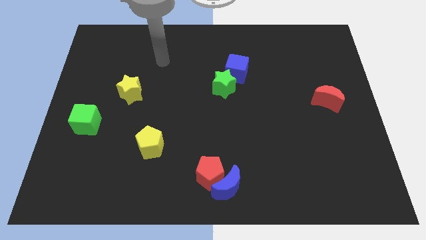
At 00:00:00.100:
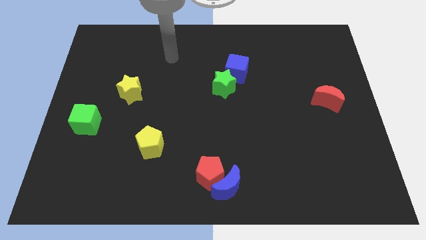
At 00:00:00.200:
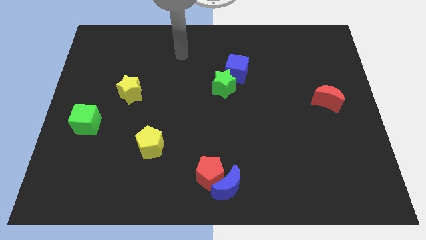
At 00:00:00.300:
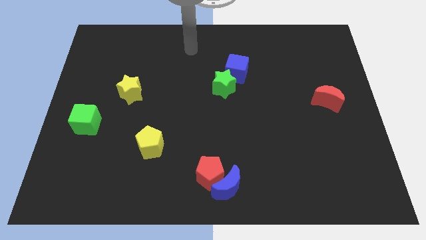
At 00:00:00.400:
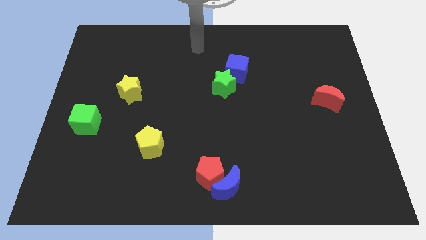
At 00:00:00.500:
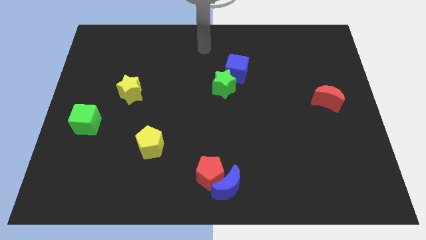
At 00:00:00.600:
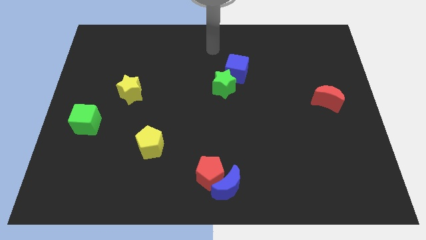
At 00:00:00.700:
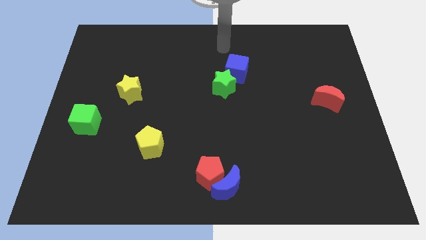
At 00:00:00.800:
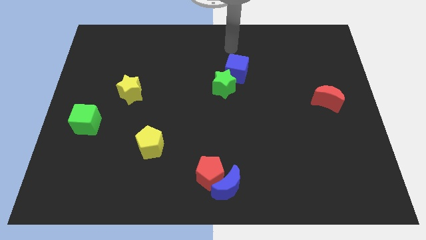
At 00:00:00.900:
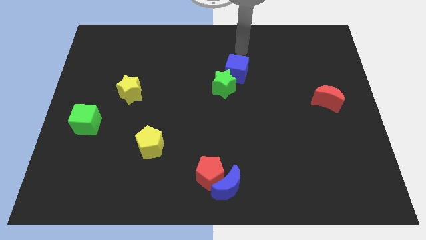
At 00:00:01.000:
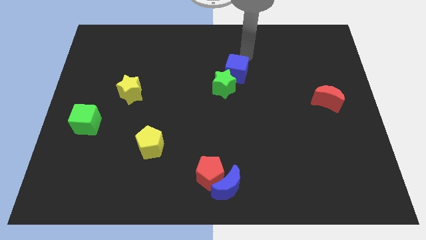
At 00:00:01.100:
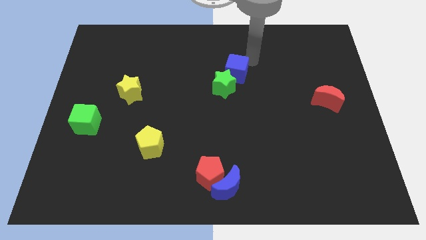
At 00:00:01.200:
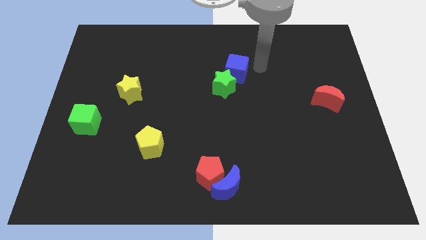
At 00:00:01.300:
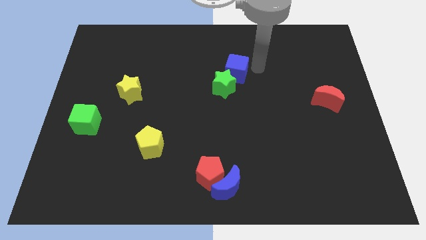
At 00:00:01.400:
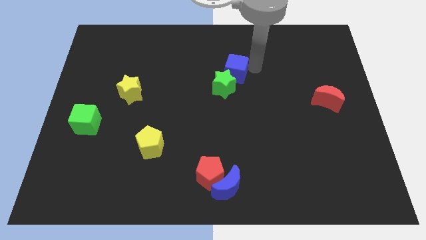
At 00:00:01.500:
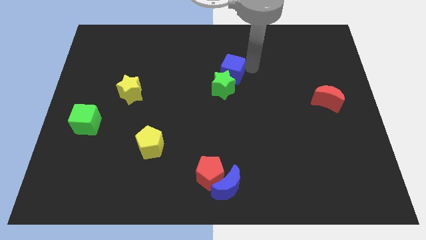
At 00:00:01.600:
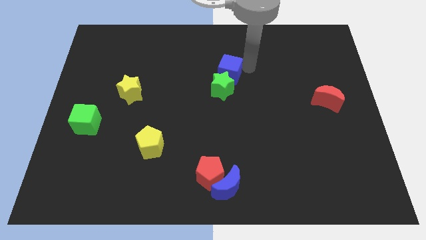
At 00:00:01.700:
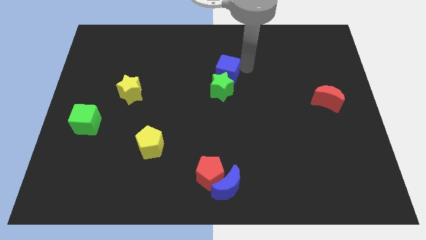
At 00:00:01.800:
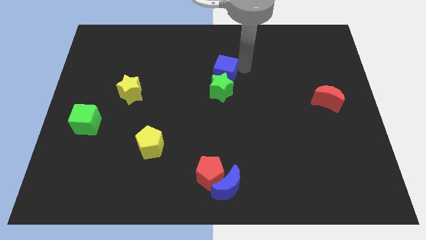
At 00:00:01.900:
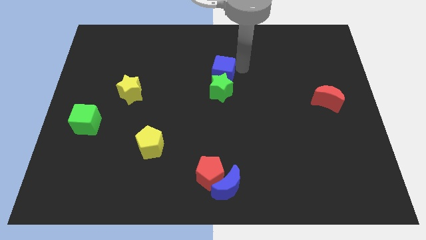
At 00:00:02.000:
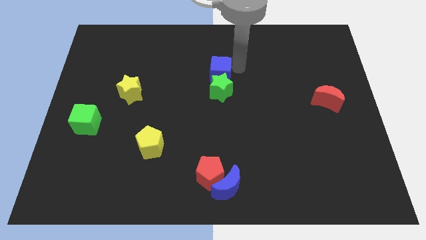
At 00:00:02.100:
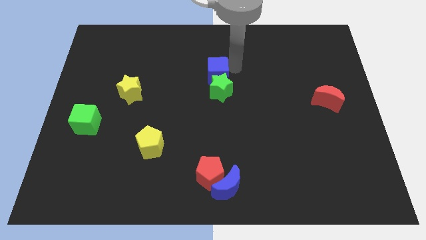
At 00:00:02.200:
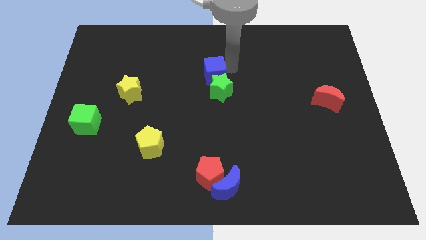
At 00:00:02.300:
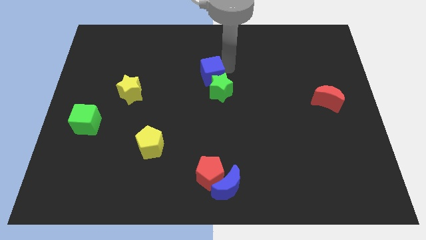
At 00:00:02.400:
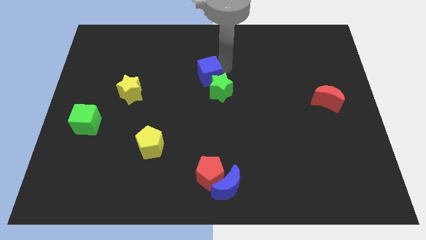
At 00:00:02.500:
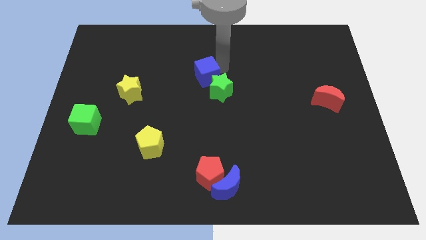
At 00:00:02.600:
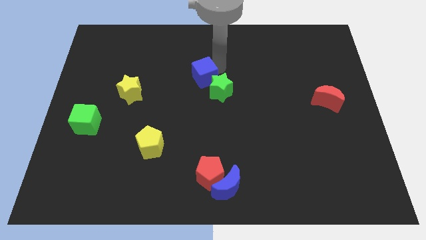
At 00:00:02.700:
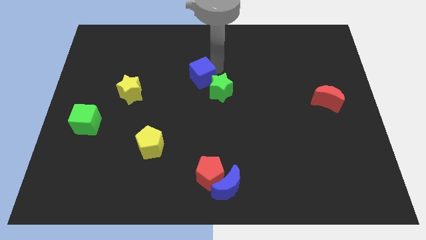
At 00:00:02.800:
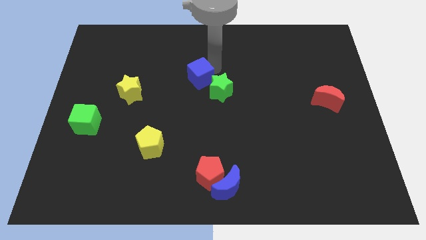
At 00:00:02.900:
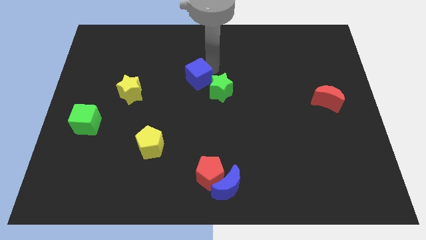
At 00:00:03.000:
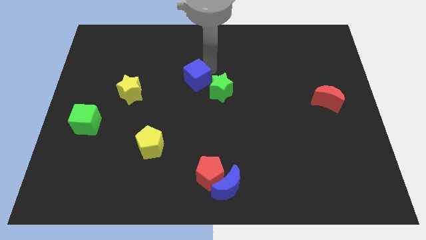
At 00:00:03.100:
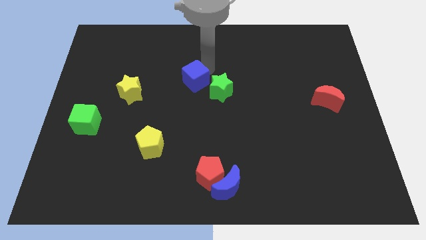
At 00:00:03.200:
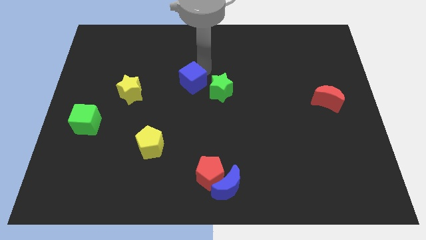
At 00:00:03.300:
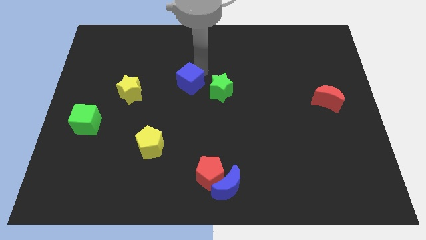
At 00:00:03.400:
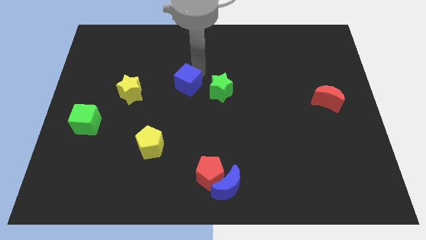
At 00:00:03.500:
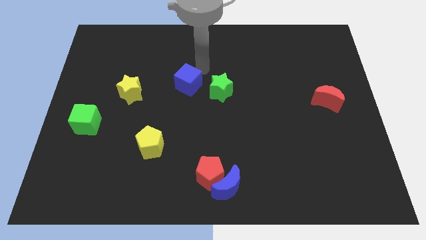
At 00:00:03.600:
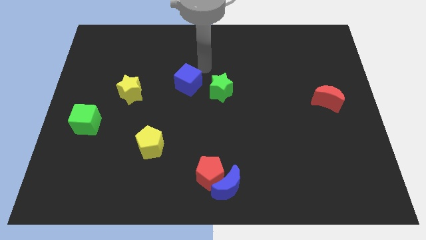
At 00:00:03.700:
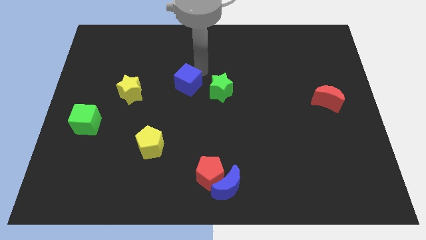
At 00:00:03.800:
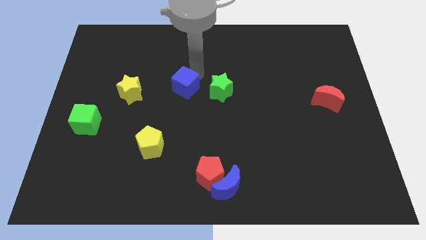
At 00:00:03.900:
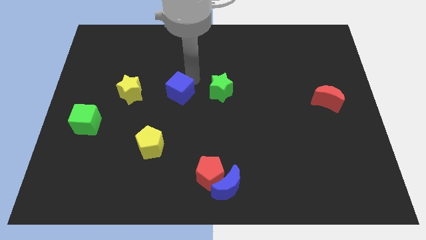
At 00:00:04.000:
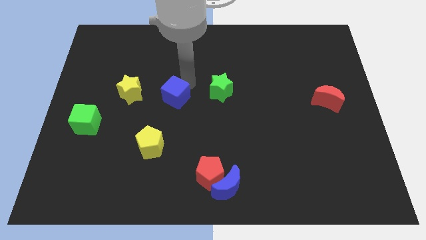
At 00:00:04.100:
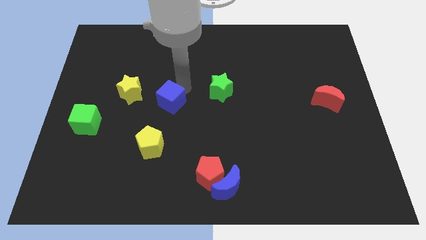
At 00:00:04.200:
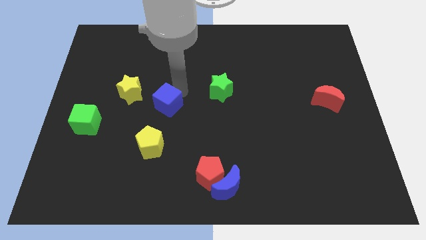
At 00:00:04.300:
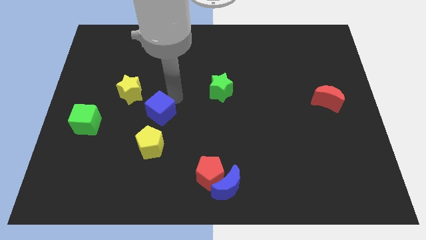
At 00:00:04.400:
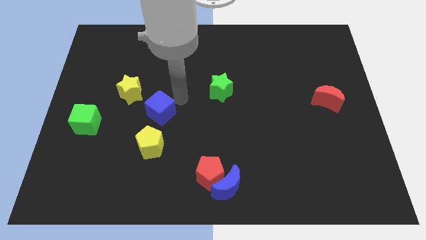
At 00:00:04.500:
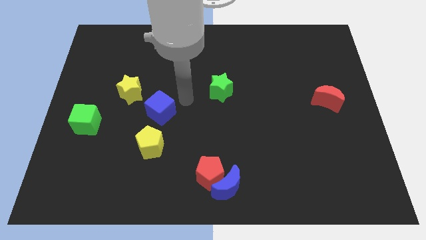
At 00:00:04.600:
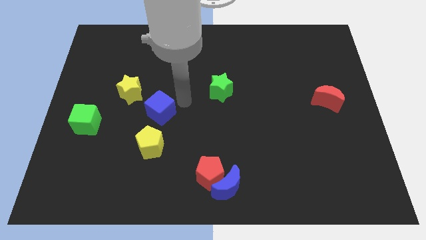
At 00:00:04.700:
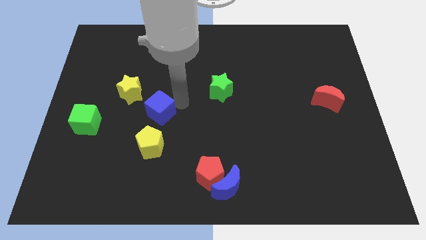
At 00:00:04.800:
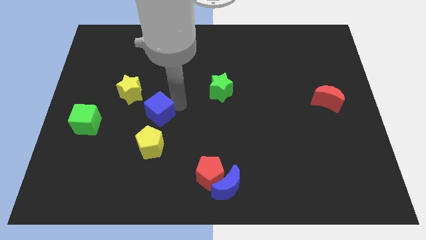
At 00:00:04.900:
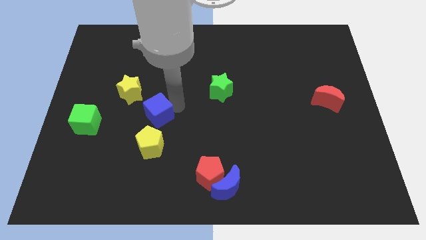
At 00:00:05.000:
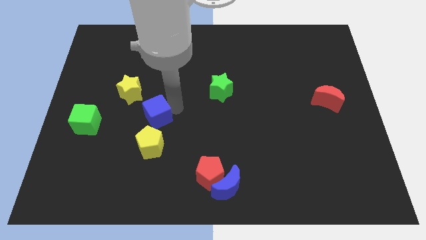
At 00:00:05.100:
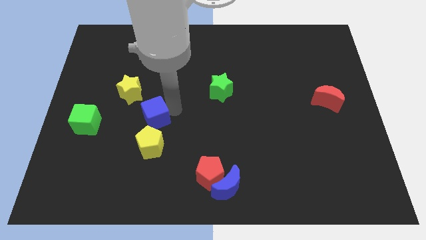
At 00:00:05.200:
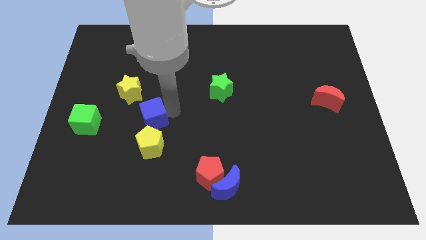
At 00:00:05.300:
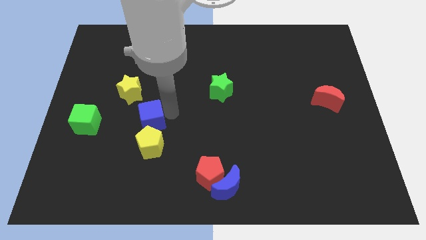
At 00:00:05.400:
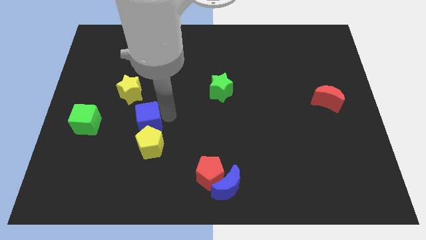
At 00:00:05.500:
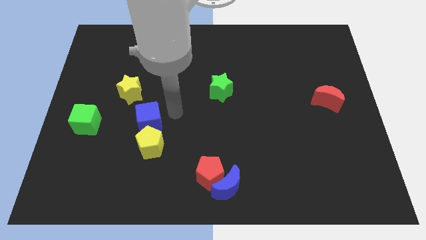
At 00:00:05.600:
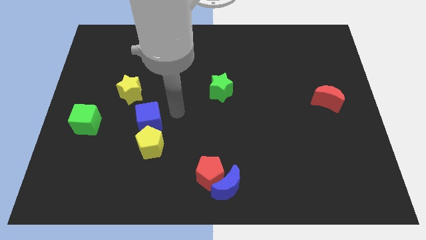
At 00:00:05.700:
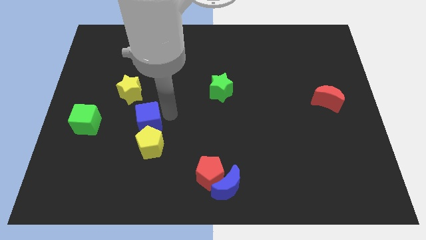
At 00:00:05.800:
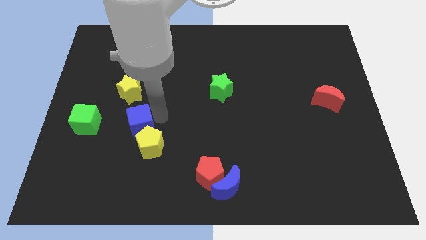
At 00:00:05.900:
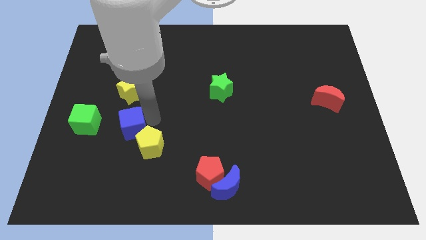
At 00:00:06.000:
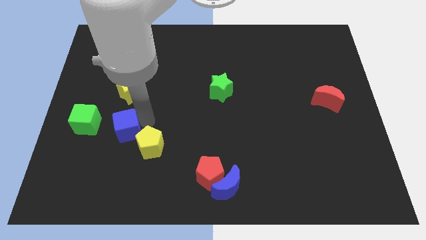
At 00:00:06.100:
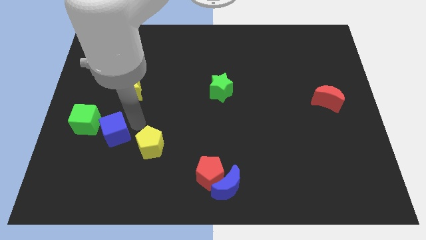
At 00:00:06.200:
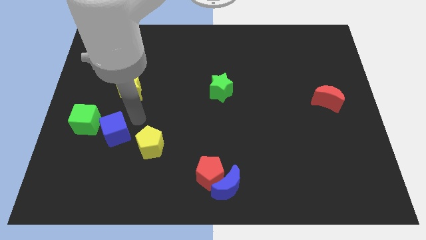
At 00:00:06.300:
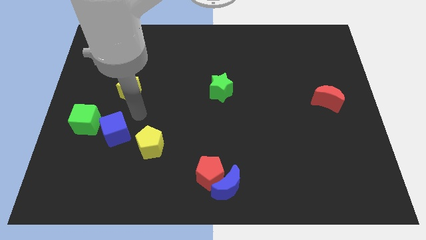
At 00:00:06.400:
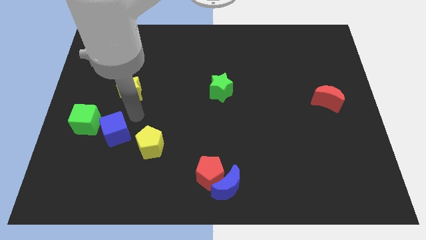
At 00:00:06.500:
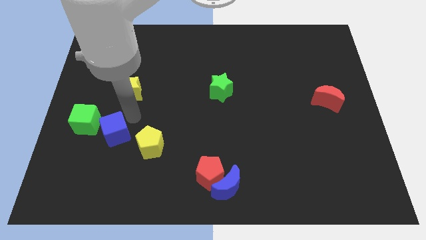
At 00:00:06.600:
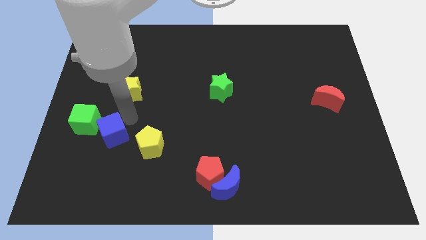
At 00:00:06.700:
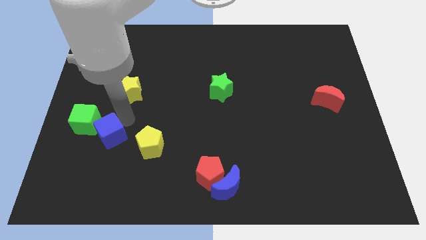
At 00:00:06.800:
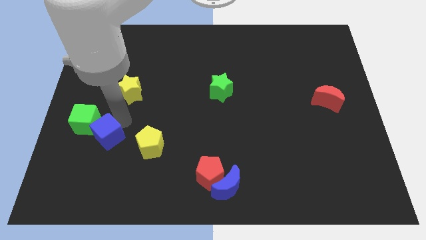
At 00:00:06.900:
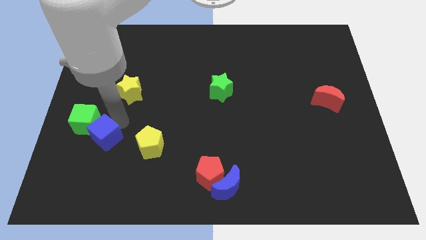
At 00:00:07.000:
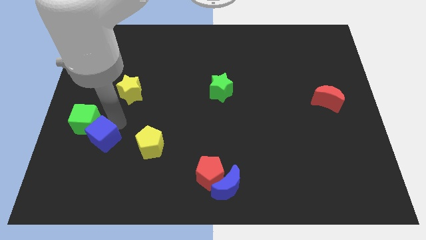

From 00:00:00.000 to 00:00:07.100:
slide the blue cube to the bottom of the green cube

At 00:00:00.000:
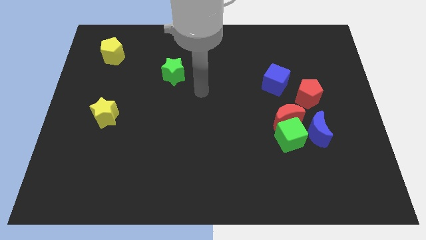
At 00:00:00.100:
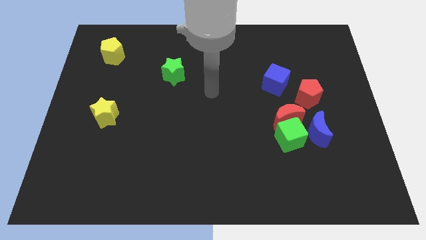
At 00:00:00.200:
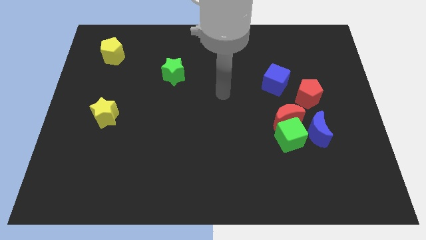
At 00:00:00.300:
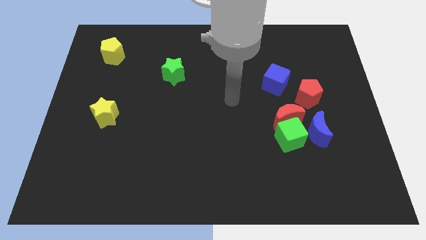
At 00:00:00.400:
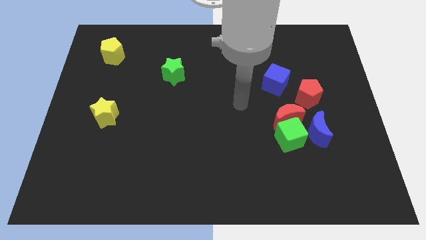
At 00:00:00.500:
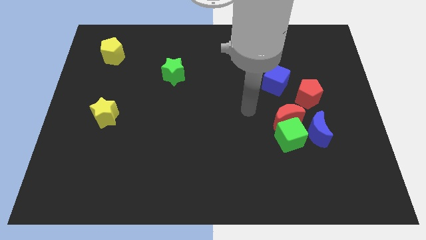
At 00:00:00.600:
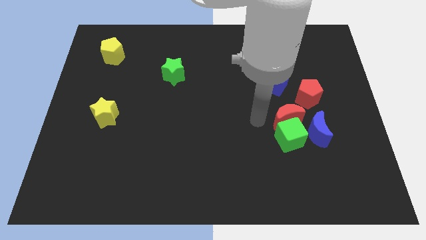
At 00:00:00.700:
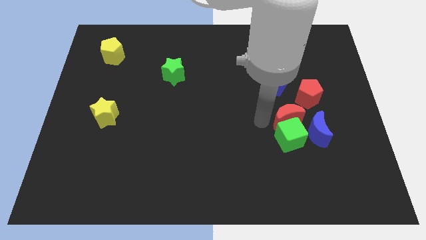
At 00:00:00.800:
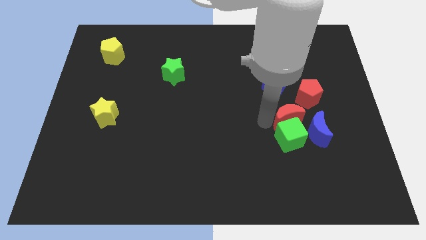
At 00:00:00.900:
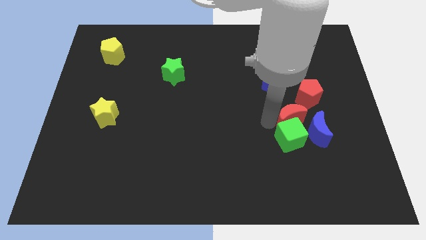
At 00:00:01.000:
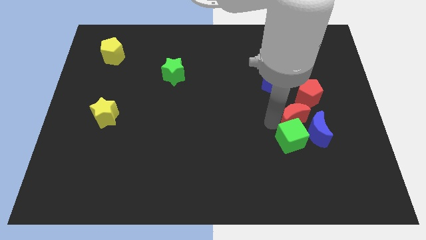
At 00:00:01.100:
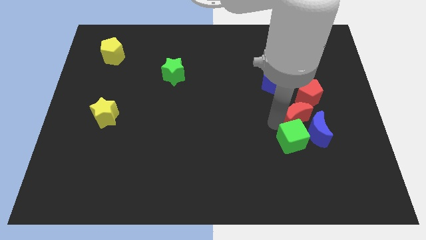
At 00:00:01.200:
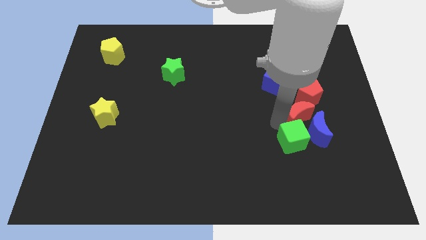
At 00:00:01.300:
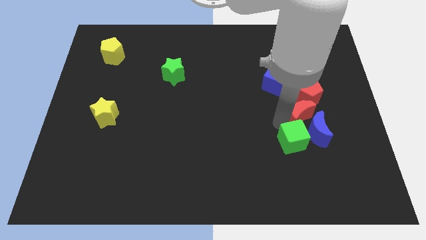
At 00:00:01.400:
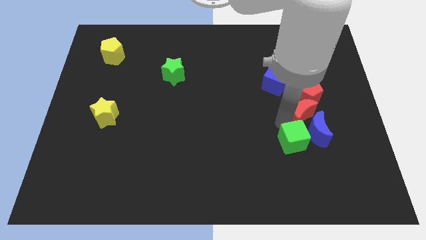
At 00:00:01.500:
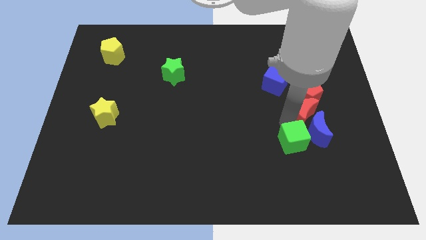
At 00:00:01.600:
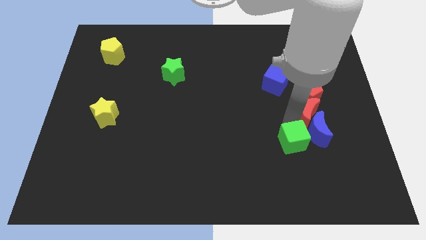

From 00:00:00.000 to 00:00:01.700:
move the red moon to the top right side of the blue moon
